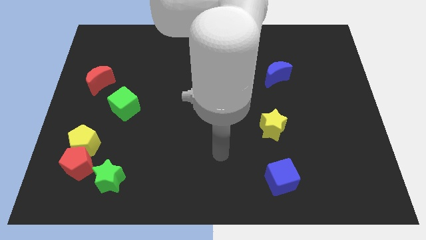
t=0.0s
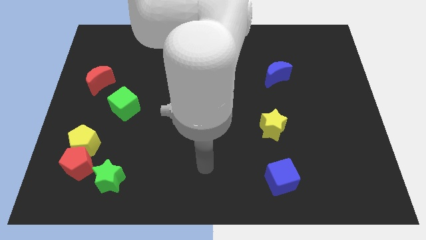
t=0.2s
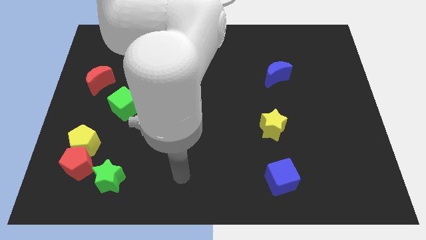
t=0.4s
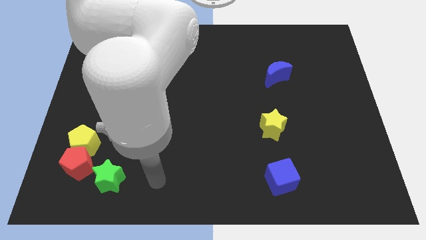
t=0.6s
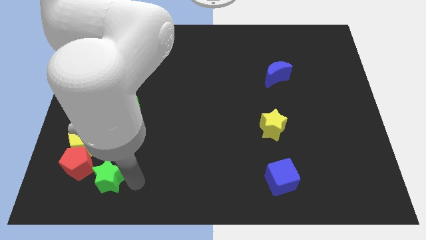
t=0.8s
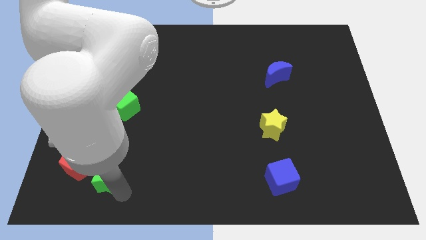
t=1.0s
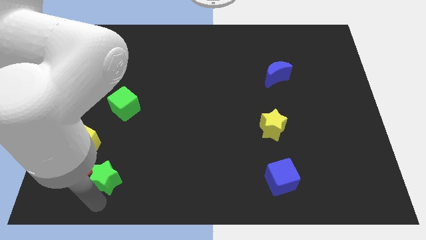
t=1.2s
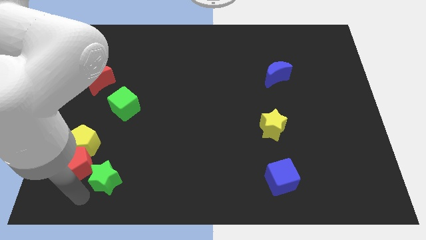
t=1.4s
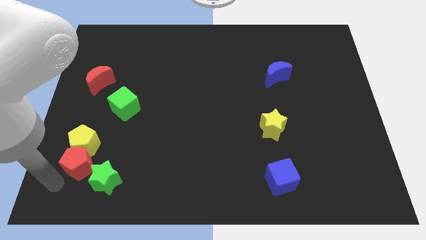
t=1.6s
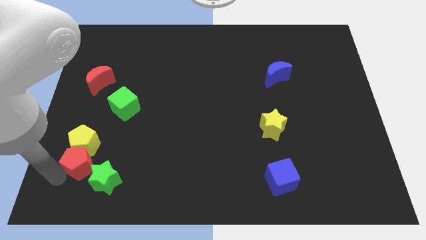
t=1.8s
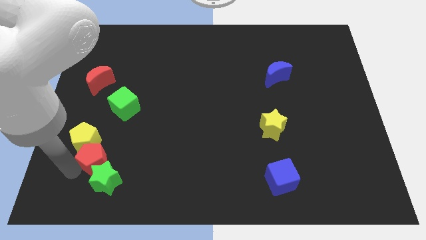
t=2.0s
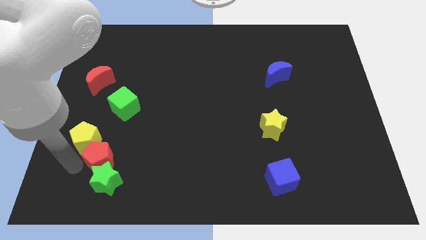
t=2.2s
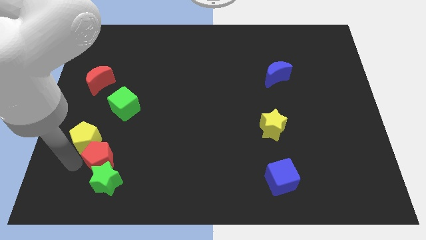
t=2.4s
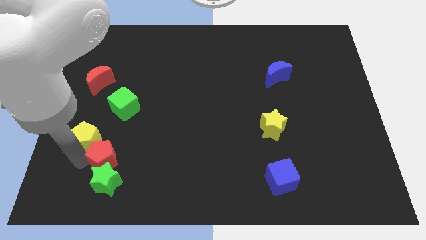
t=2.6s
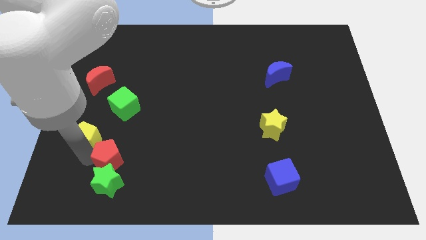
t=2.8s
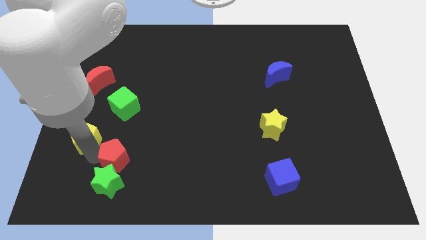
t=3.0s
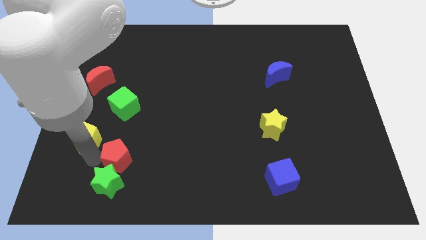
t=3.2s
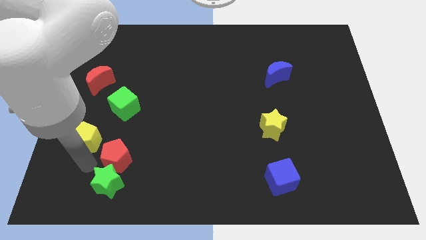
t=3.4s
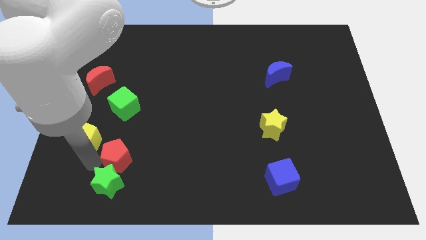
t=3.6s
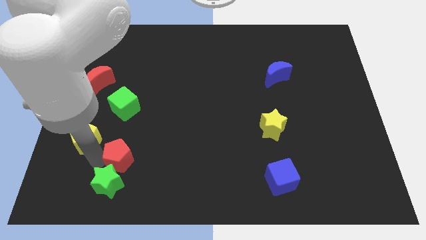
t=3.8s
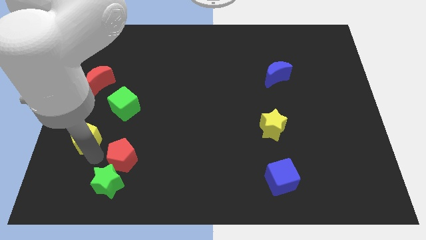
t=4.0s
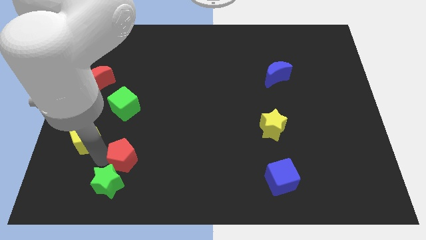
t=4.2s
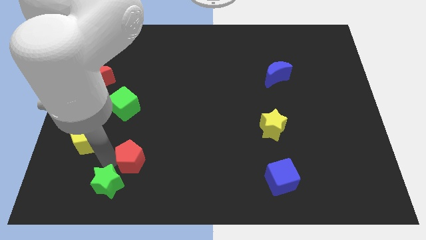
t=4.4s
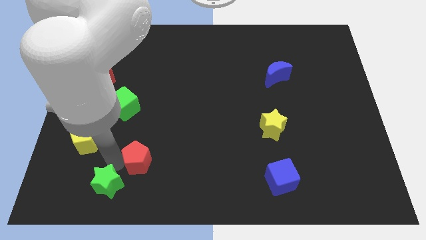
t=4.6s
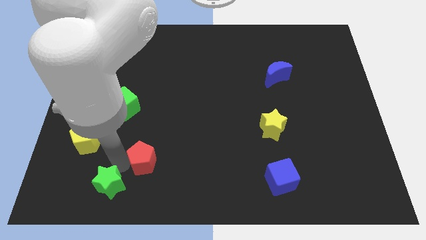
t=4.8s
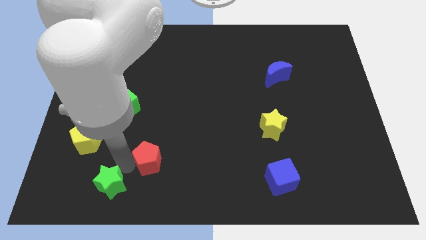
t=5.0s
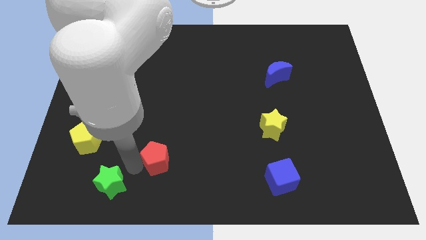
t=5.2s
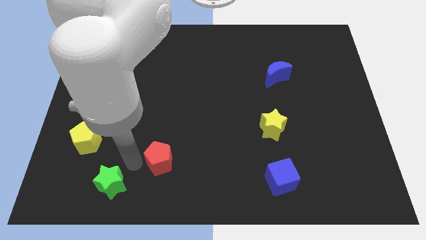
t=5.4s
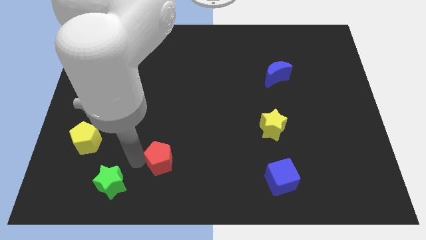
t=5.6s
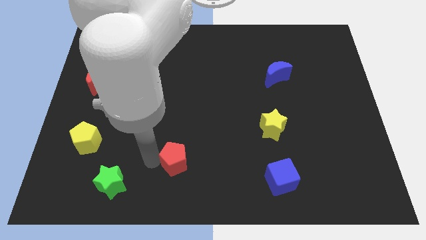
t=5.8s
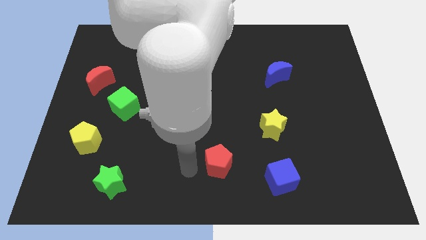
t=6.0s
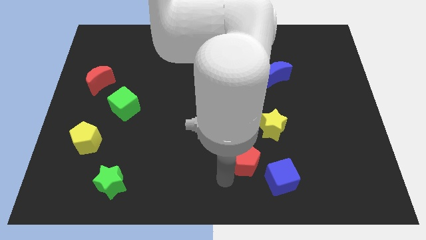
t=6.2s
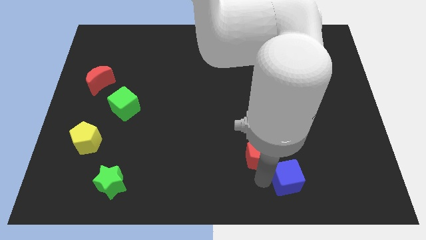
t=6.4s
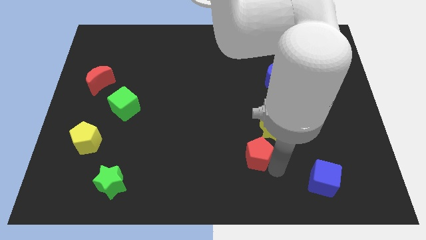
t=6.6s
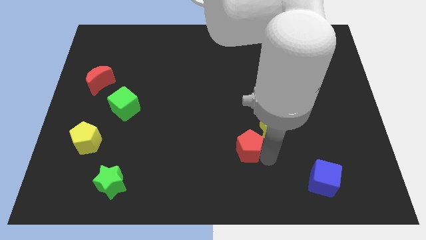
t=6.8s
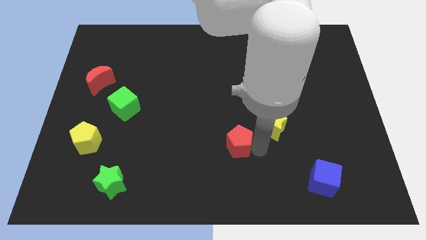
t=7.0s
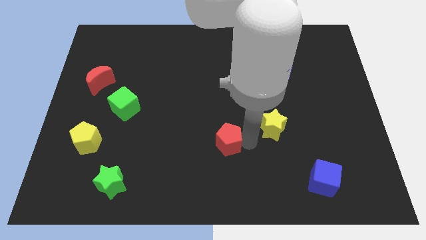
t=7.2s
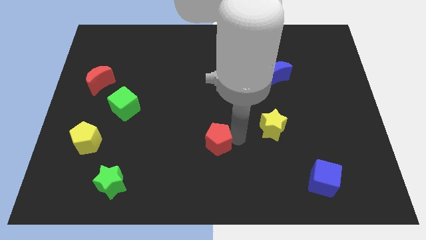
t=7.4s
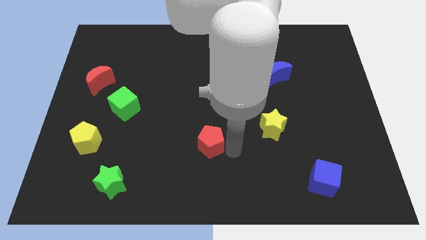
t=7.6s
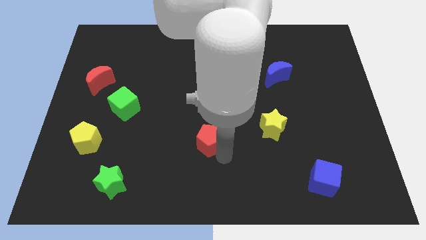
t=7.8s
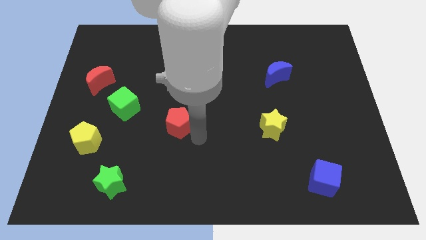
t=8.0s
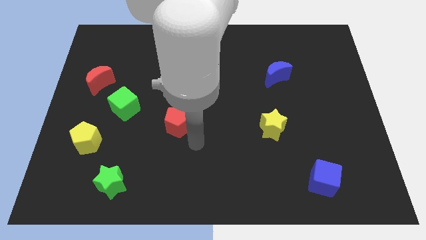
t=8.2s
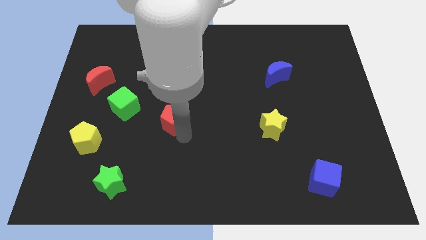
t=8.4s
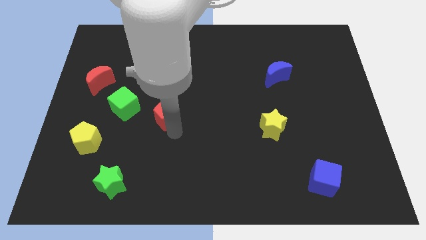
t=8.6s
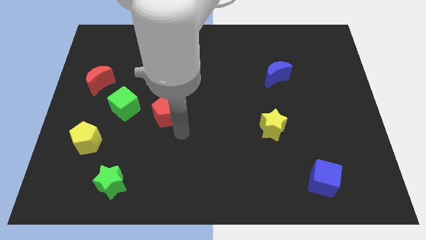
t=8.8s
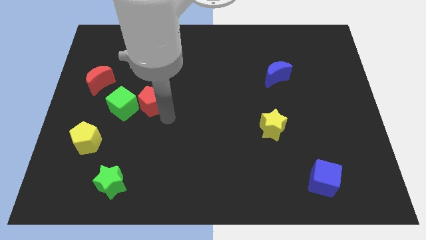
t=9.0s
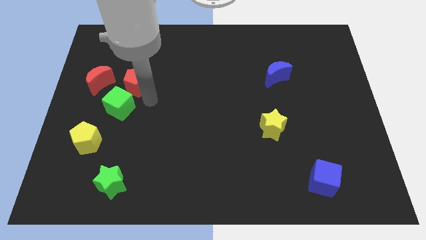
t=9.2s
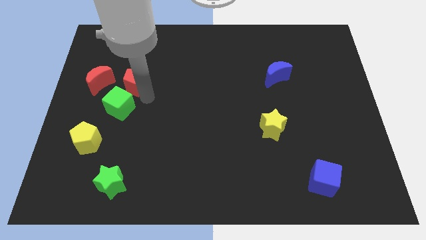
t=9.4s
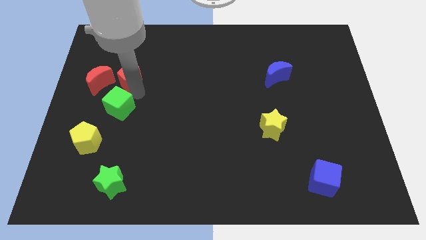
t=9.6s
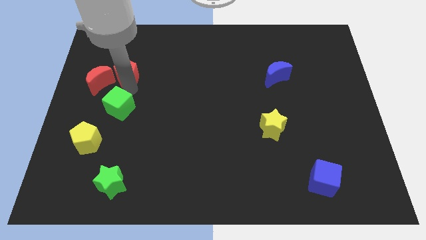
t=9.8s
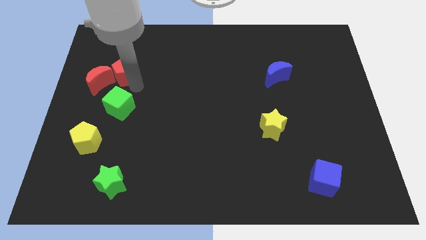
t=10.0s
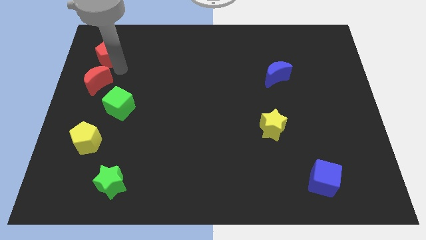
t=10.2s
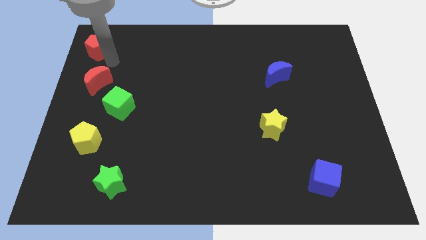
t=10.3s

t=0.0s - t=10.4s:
push the red pentagon to the top left

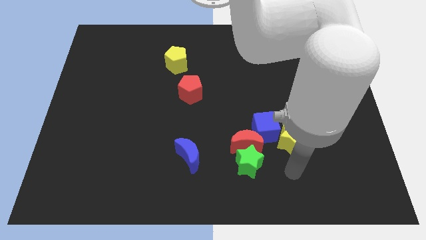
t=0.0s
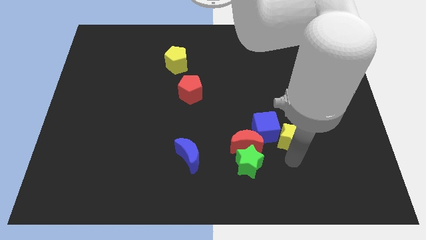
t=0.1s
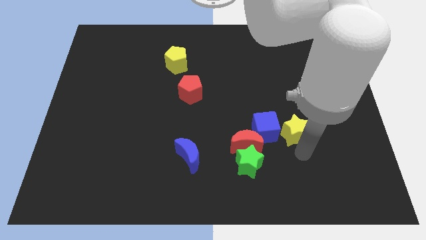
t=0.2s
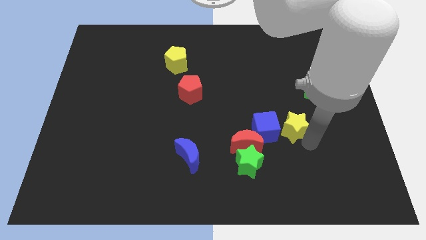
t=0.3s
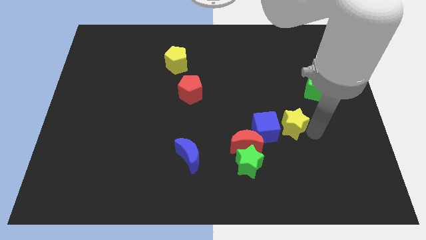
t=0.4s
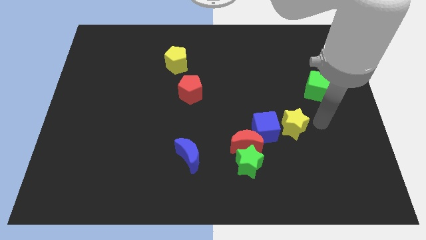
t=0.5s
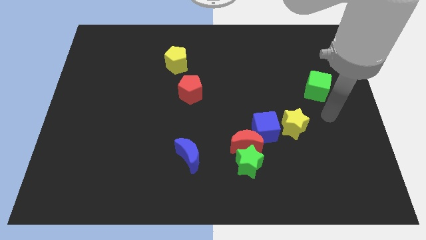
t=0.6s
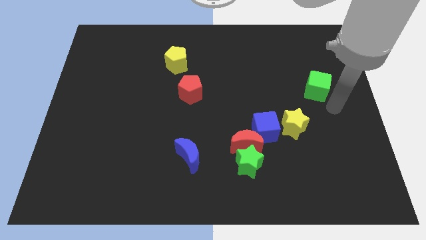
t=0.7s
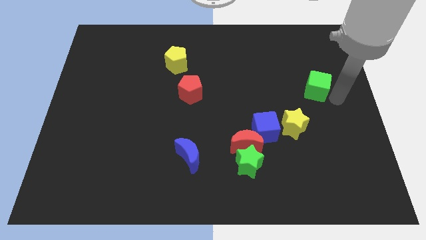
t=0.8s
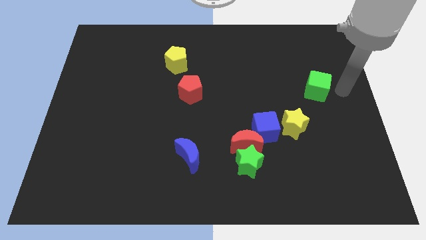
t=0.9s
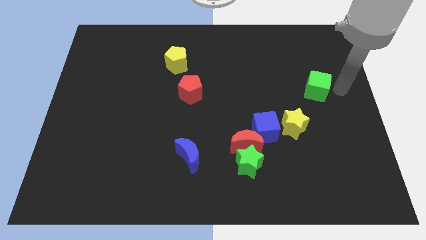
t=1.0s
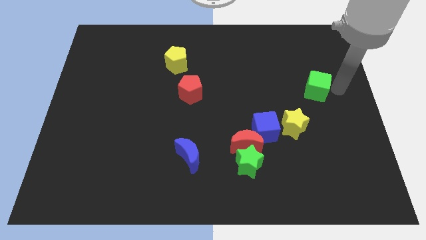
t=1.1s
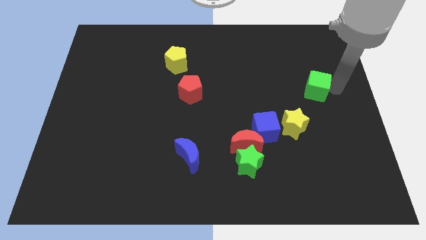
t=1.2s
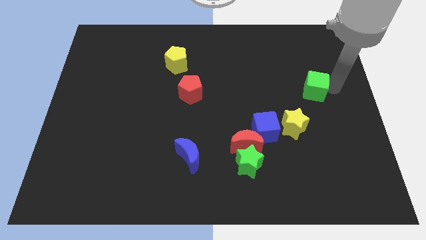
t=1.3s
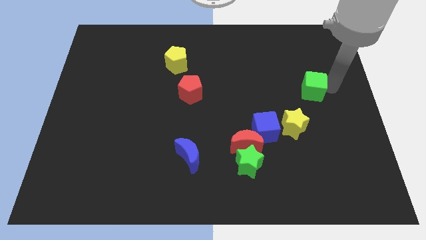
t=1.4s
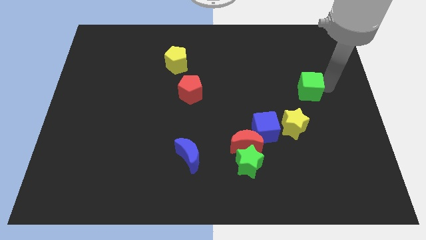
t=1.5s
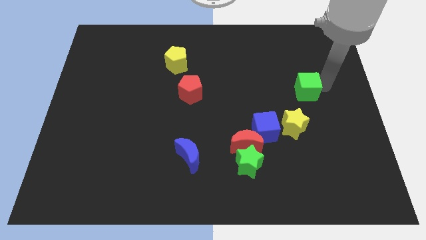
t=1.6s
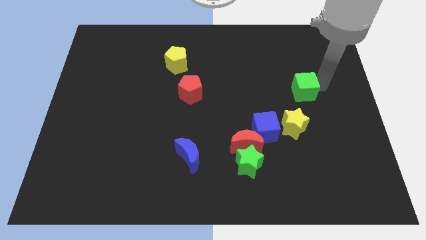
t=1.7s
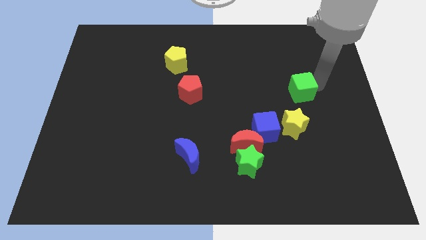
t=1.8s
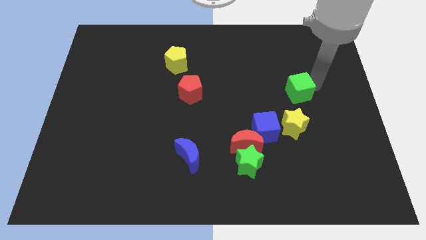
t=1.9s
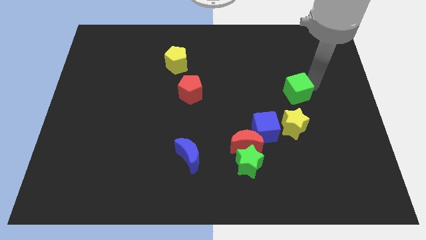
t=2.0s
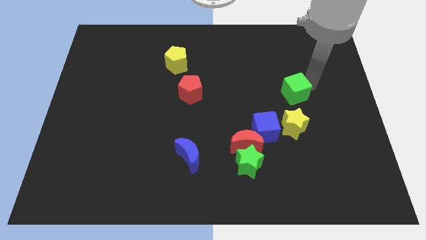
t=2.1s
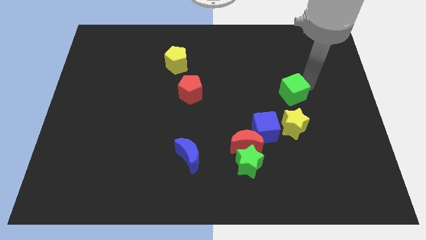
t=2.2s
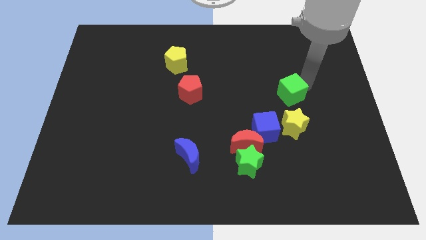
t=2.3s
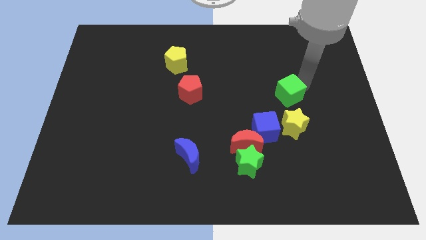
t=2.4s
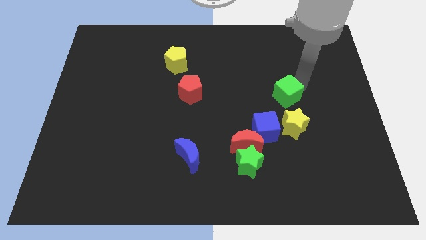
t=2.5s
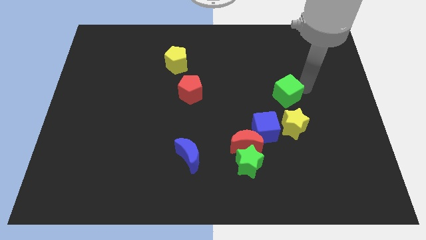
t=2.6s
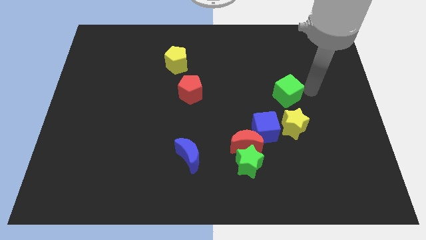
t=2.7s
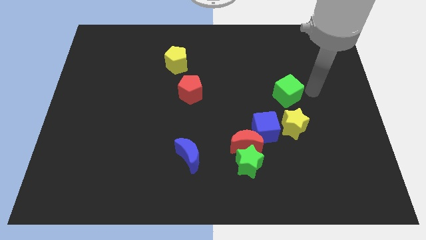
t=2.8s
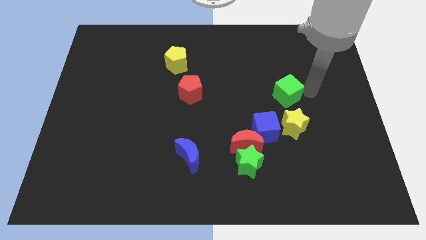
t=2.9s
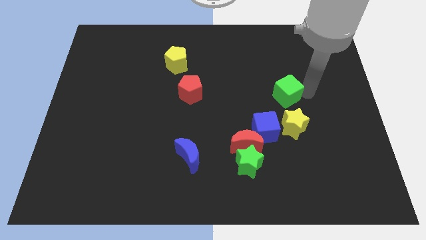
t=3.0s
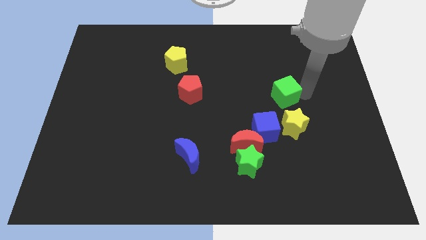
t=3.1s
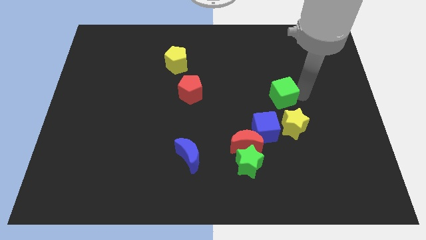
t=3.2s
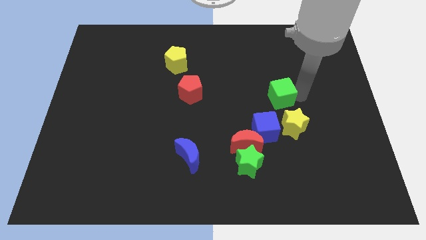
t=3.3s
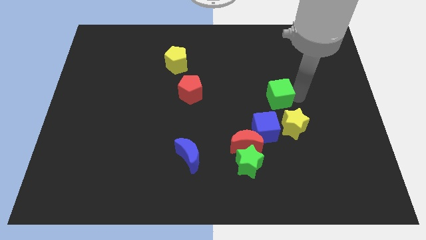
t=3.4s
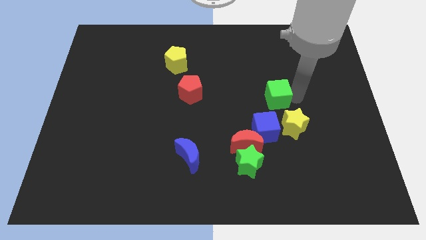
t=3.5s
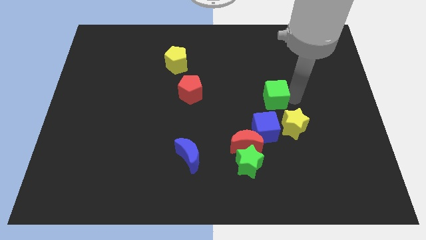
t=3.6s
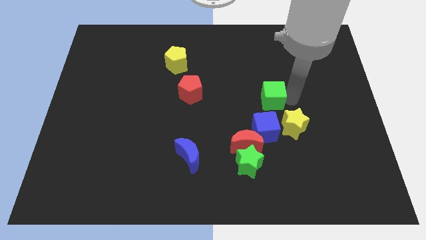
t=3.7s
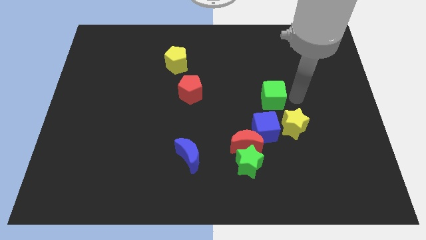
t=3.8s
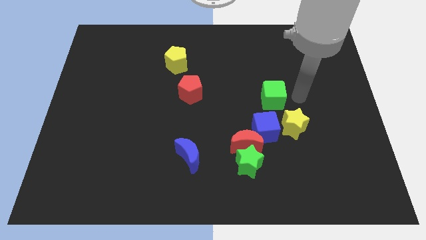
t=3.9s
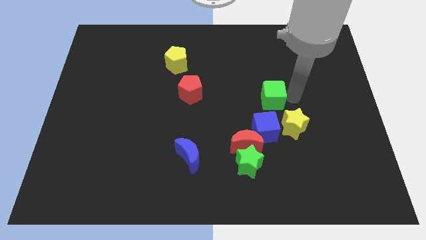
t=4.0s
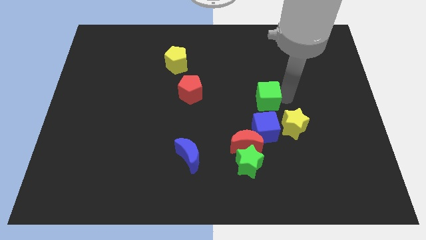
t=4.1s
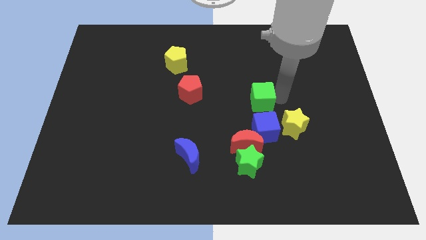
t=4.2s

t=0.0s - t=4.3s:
move the green cube to the middle of the board
